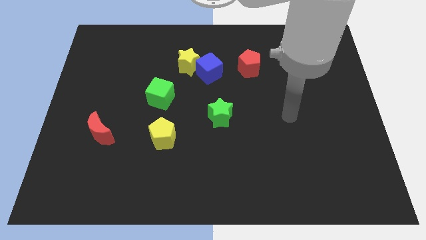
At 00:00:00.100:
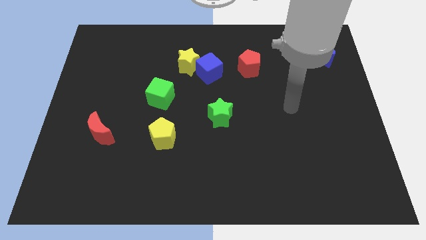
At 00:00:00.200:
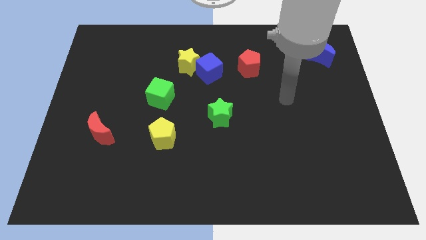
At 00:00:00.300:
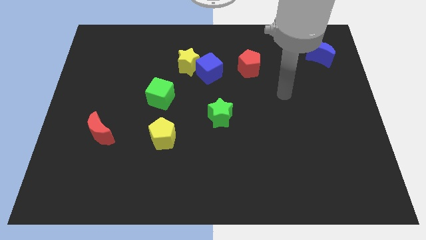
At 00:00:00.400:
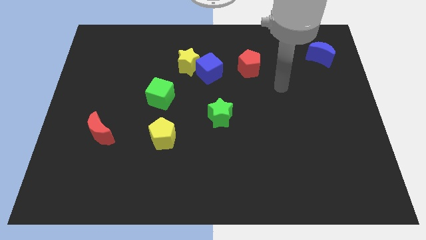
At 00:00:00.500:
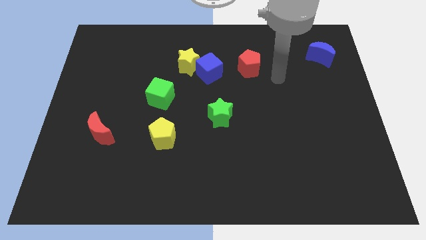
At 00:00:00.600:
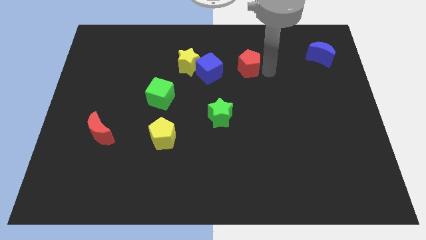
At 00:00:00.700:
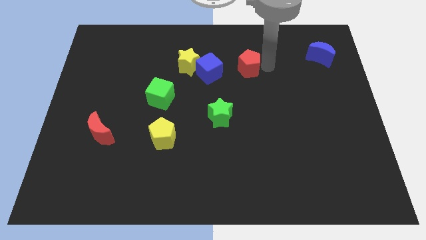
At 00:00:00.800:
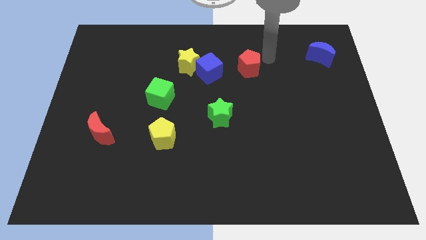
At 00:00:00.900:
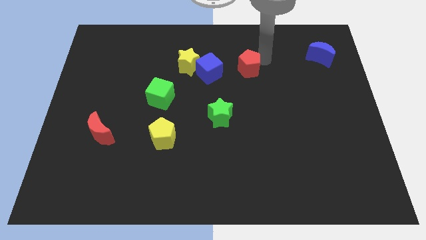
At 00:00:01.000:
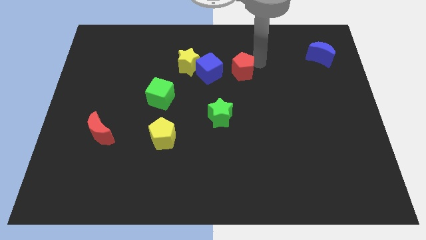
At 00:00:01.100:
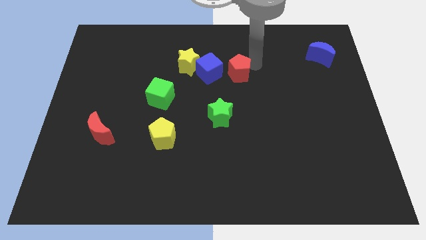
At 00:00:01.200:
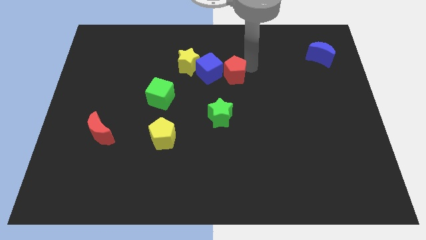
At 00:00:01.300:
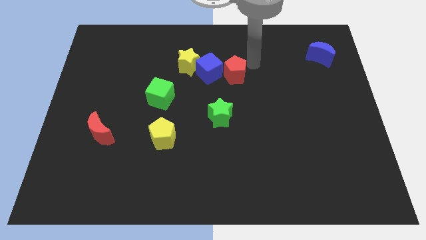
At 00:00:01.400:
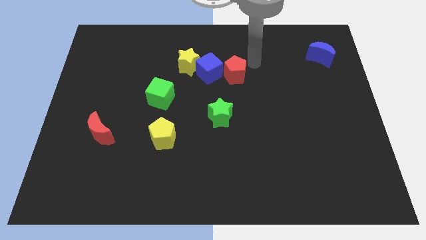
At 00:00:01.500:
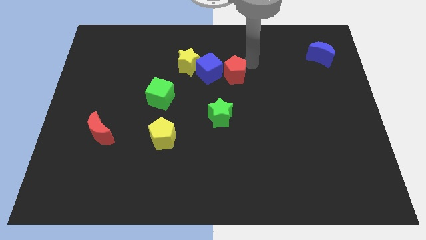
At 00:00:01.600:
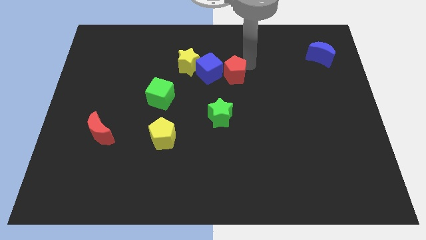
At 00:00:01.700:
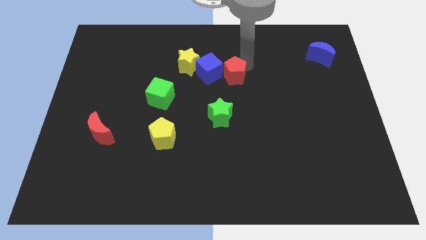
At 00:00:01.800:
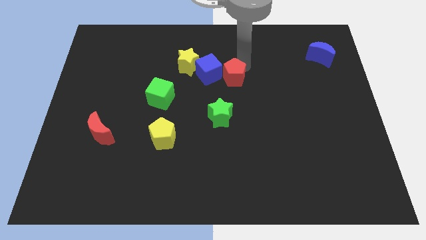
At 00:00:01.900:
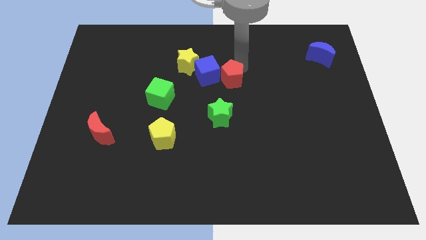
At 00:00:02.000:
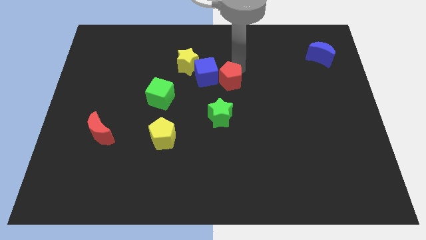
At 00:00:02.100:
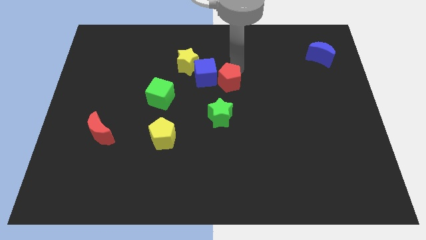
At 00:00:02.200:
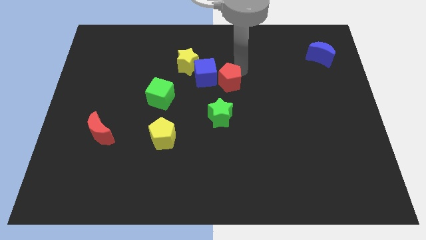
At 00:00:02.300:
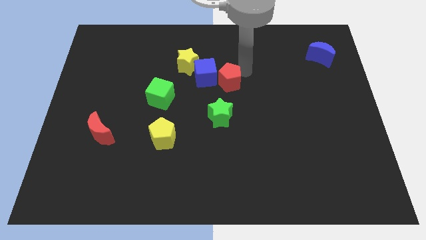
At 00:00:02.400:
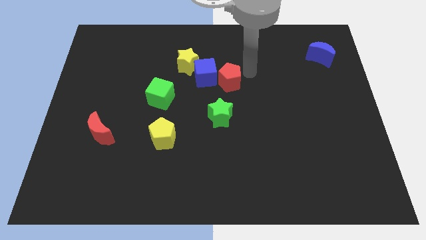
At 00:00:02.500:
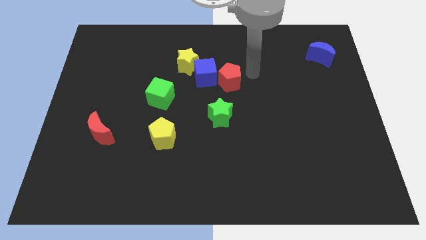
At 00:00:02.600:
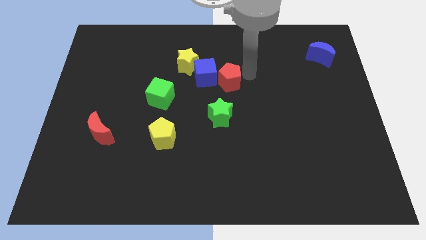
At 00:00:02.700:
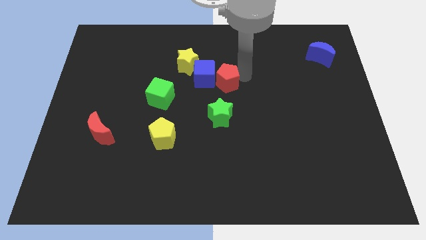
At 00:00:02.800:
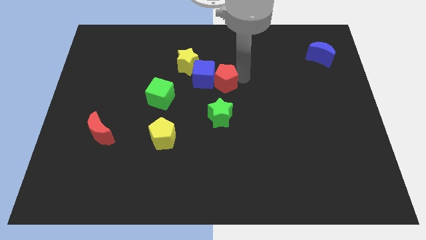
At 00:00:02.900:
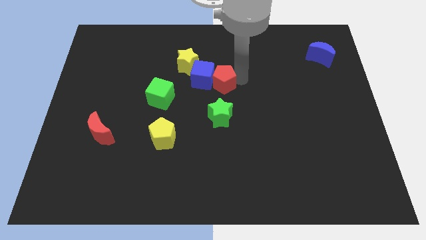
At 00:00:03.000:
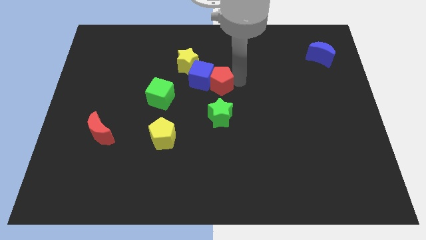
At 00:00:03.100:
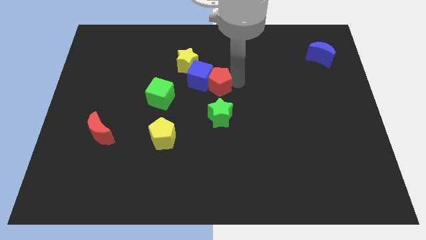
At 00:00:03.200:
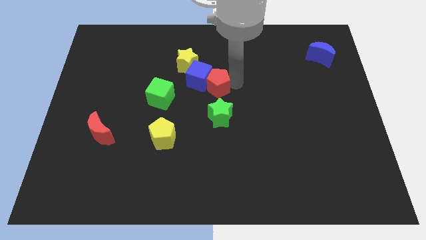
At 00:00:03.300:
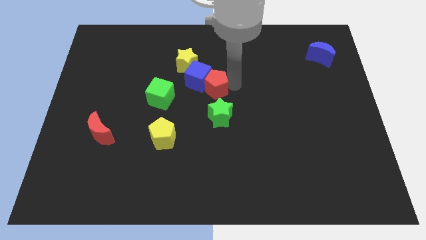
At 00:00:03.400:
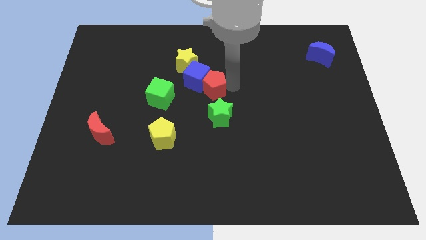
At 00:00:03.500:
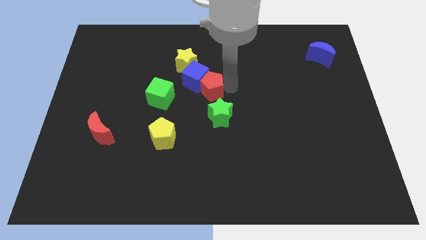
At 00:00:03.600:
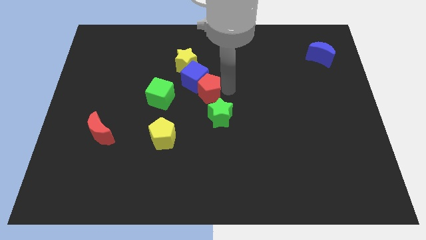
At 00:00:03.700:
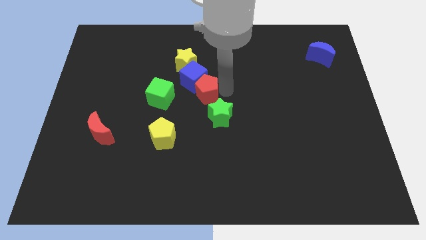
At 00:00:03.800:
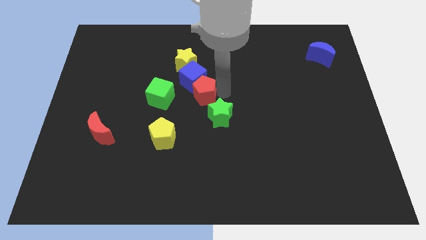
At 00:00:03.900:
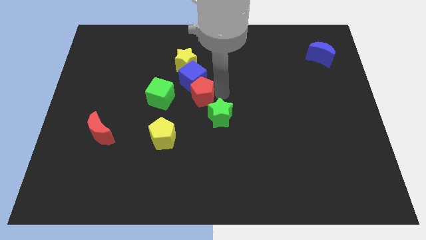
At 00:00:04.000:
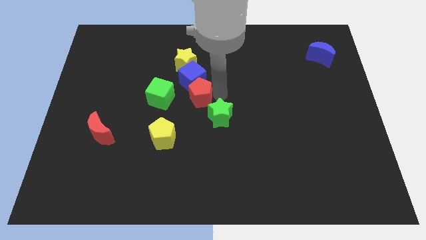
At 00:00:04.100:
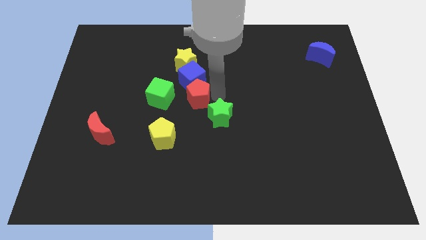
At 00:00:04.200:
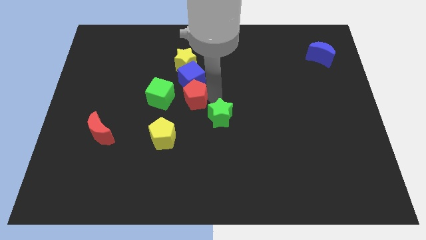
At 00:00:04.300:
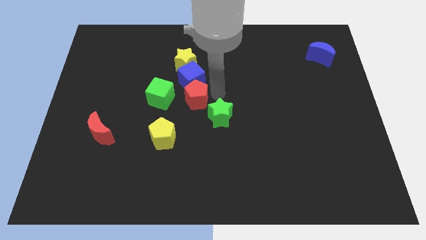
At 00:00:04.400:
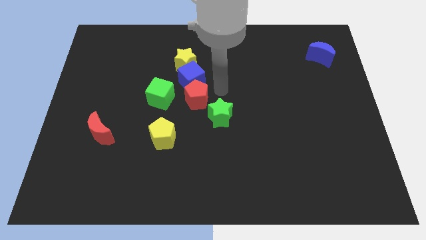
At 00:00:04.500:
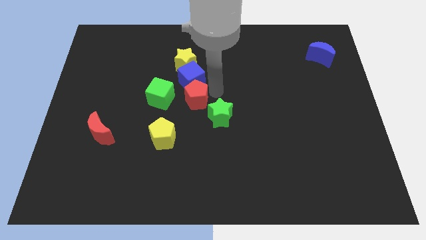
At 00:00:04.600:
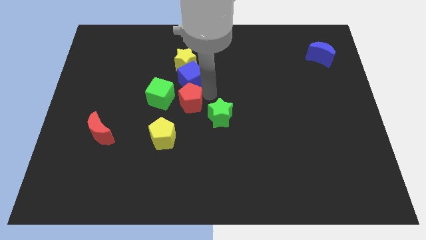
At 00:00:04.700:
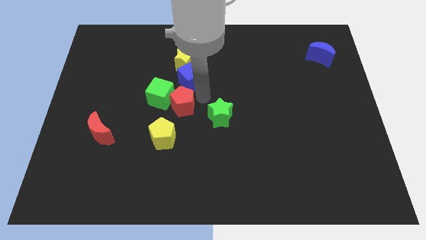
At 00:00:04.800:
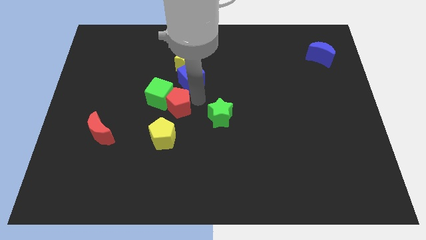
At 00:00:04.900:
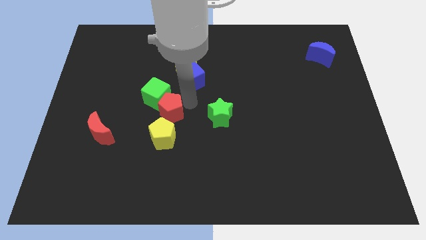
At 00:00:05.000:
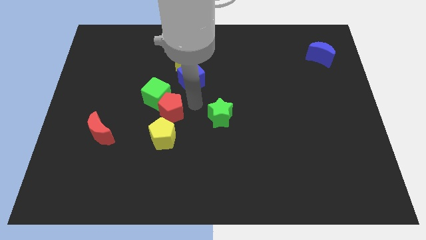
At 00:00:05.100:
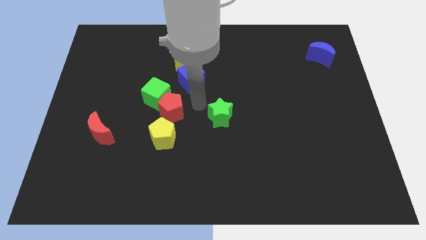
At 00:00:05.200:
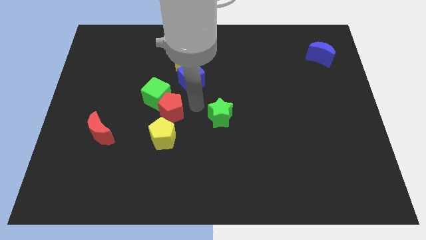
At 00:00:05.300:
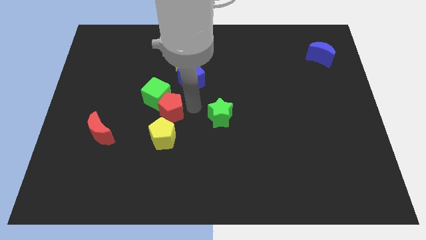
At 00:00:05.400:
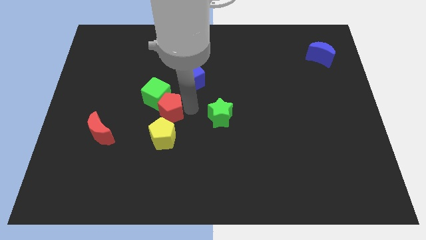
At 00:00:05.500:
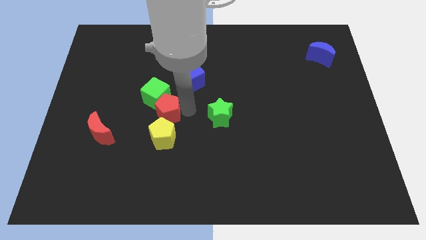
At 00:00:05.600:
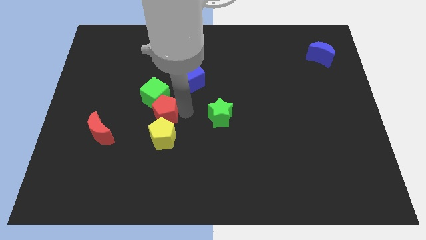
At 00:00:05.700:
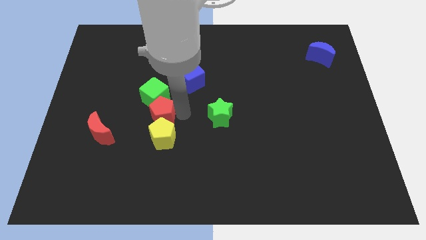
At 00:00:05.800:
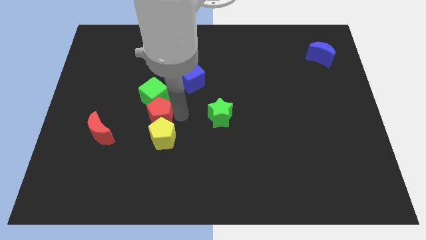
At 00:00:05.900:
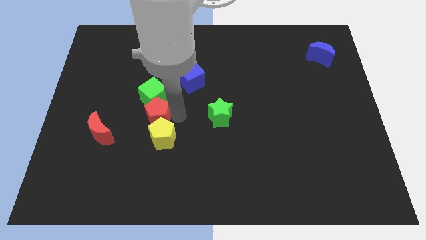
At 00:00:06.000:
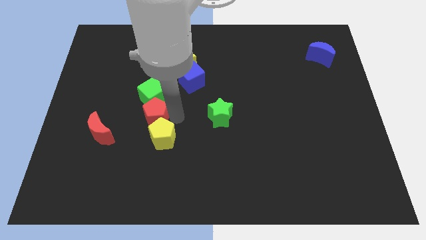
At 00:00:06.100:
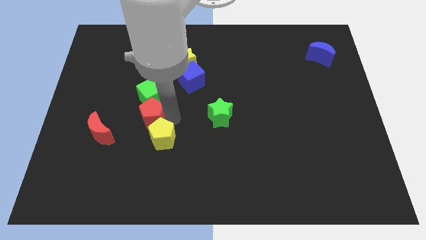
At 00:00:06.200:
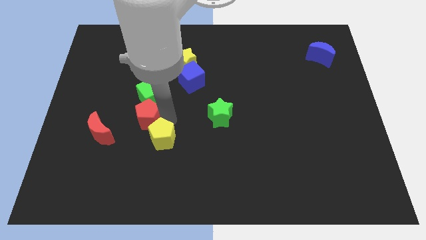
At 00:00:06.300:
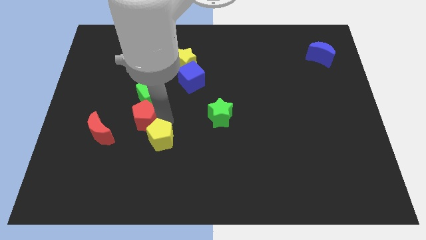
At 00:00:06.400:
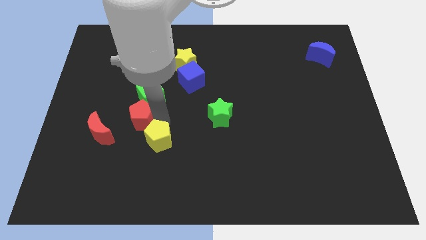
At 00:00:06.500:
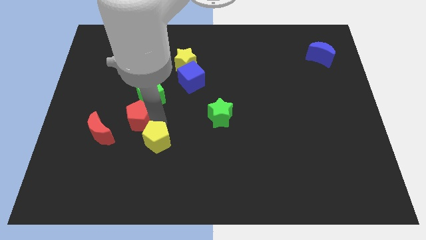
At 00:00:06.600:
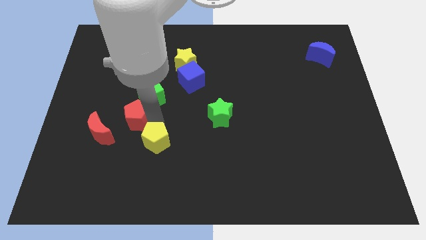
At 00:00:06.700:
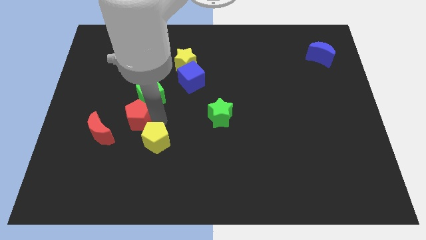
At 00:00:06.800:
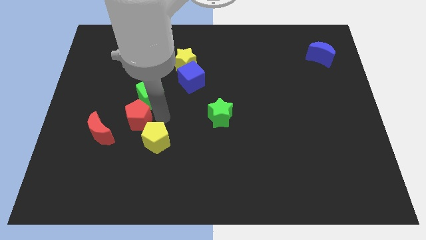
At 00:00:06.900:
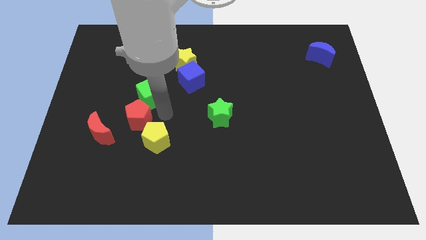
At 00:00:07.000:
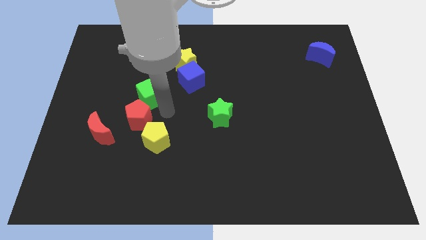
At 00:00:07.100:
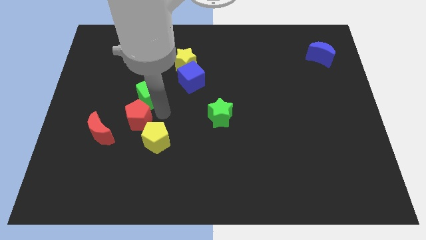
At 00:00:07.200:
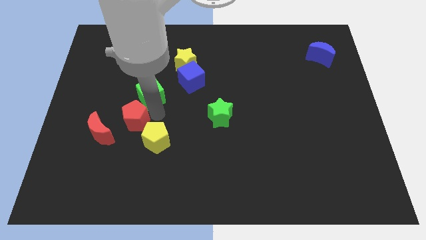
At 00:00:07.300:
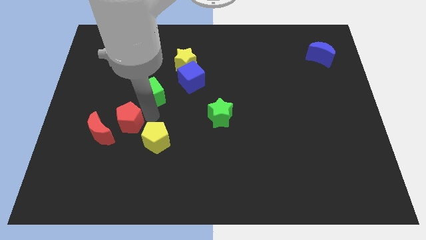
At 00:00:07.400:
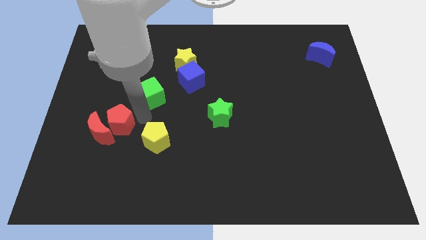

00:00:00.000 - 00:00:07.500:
slide the red pentagon next to the red moon

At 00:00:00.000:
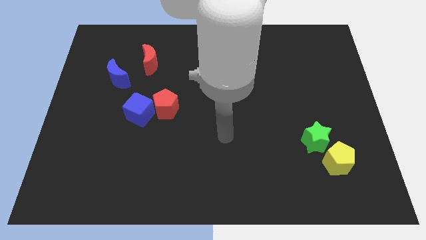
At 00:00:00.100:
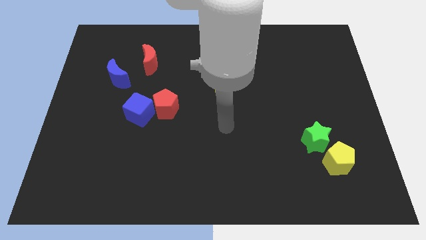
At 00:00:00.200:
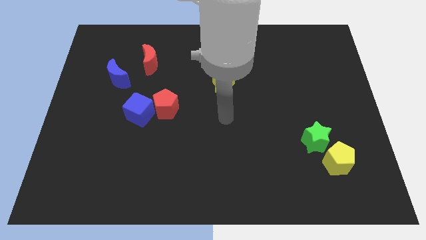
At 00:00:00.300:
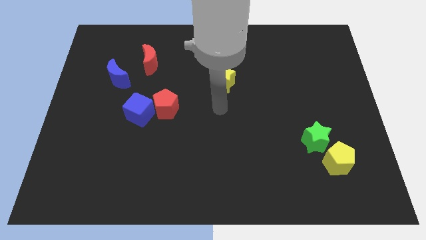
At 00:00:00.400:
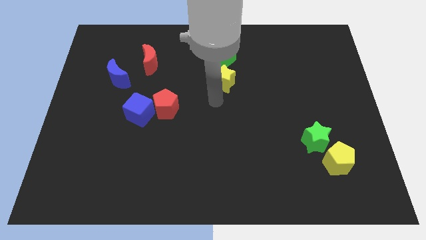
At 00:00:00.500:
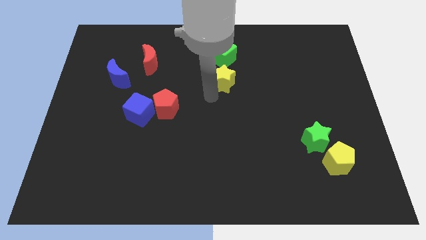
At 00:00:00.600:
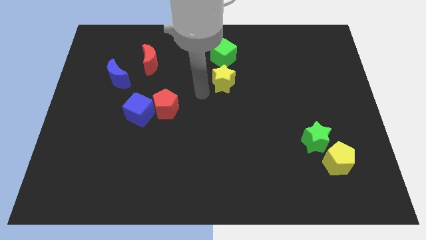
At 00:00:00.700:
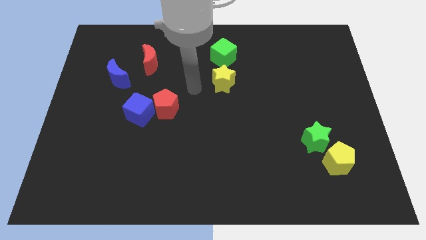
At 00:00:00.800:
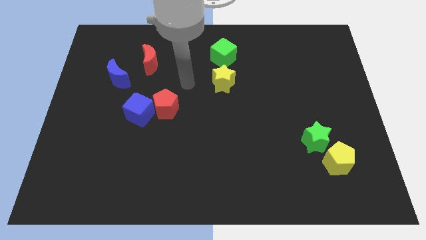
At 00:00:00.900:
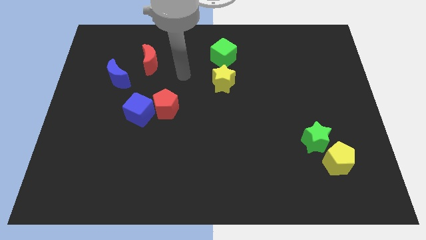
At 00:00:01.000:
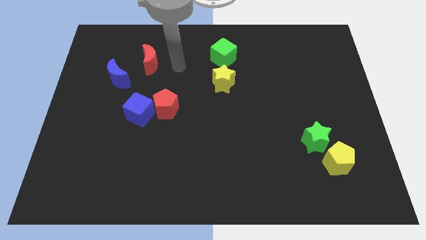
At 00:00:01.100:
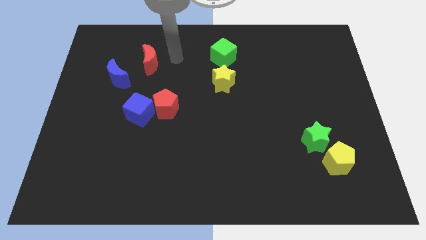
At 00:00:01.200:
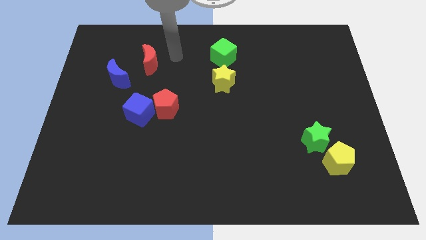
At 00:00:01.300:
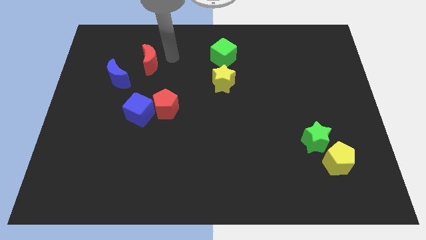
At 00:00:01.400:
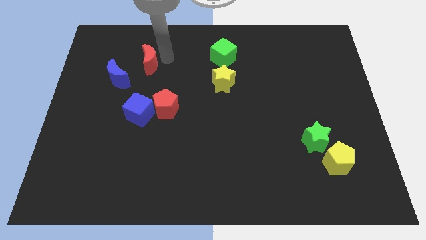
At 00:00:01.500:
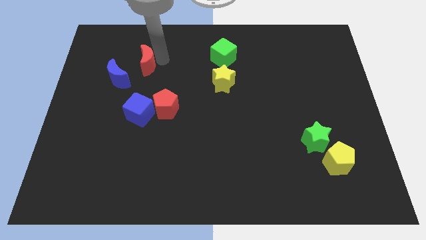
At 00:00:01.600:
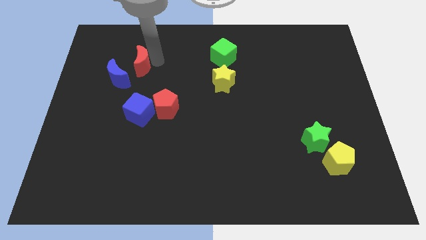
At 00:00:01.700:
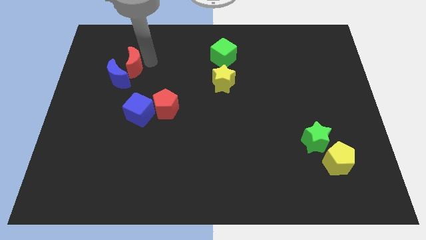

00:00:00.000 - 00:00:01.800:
put the red moon to the blue moon
